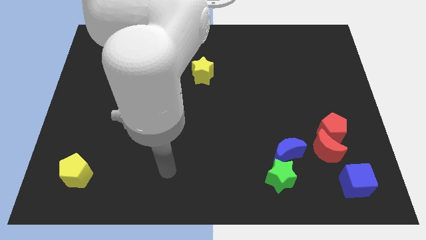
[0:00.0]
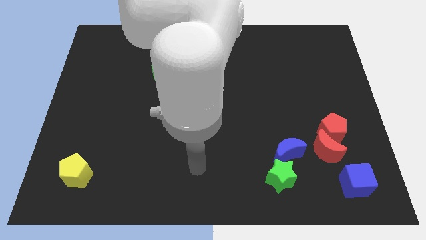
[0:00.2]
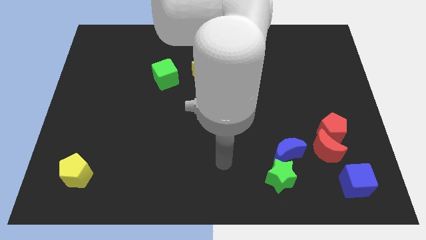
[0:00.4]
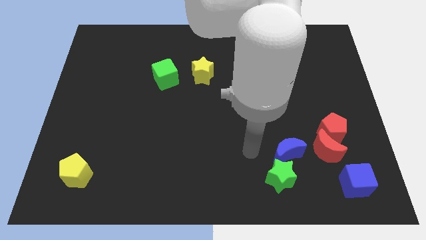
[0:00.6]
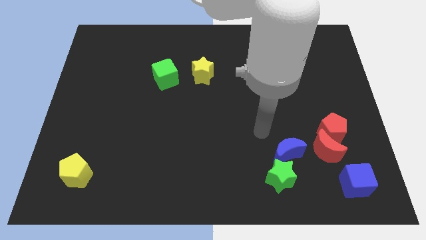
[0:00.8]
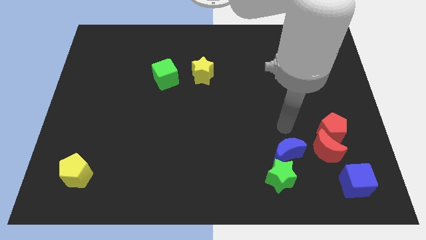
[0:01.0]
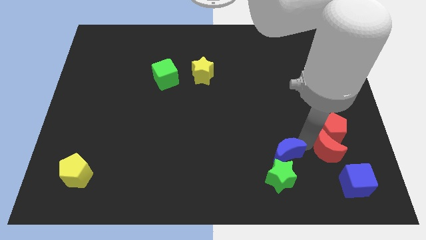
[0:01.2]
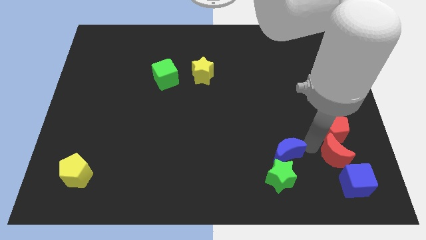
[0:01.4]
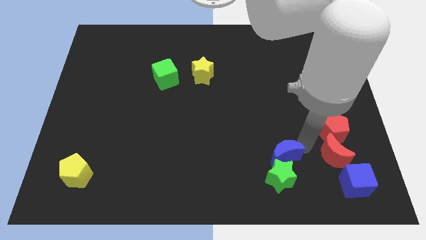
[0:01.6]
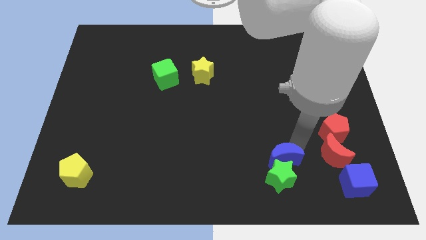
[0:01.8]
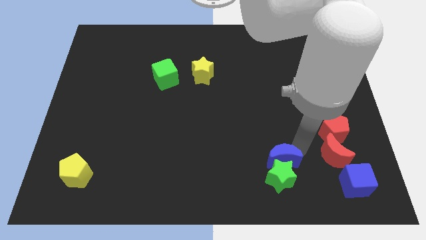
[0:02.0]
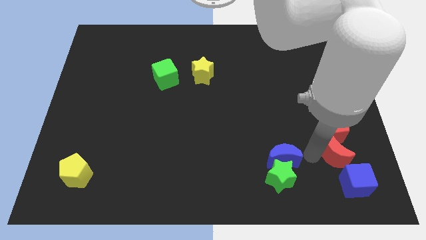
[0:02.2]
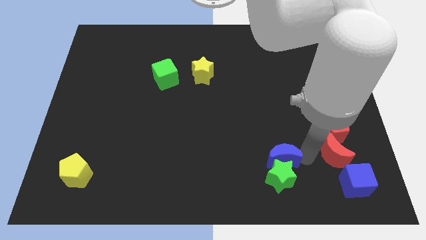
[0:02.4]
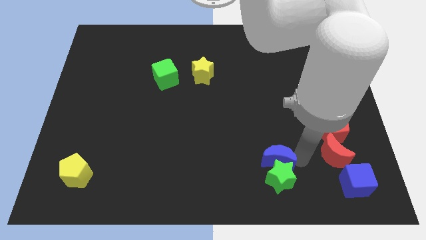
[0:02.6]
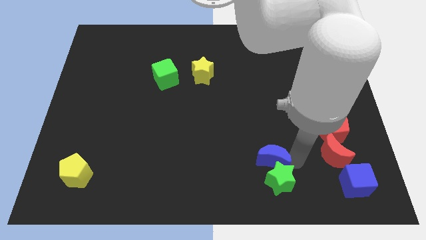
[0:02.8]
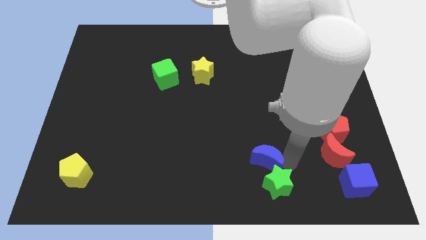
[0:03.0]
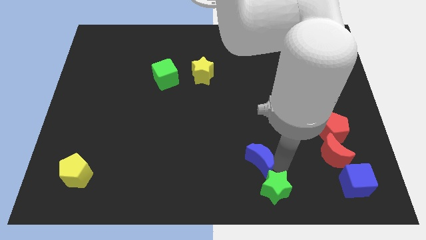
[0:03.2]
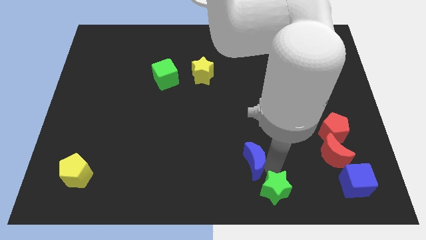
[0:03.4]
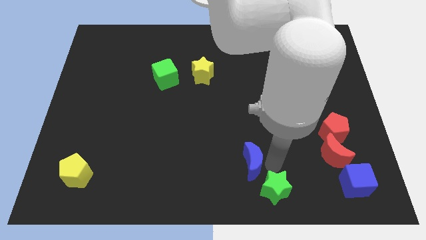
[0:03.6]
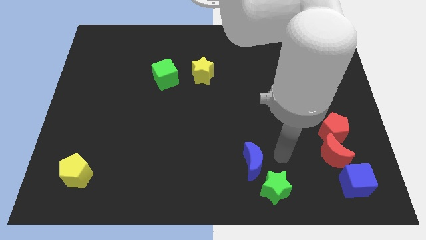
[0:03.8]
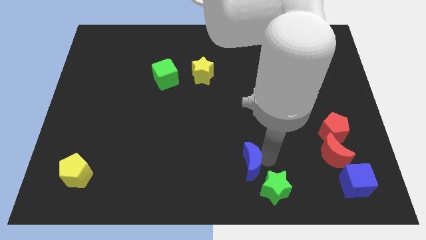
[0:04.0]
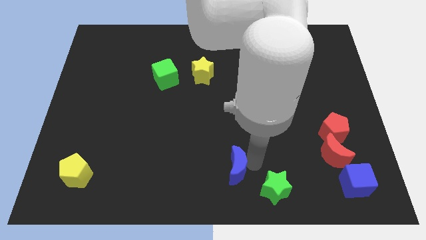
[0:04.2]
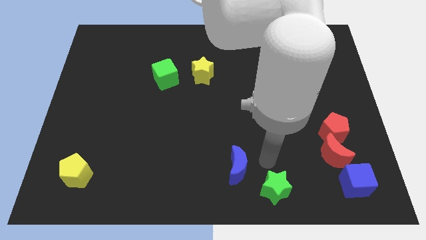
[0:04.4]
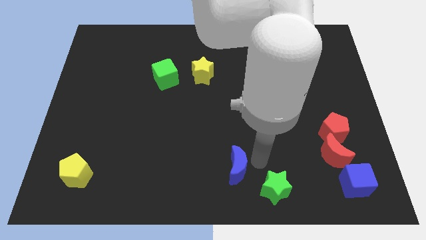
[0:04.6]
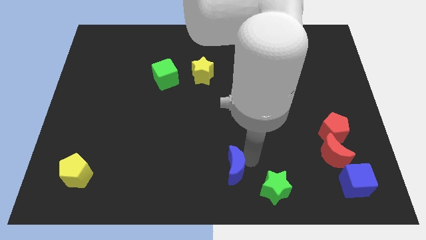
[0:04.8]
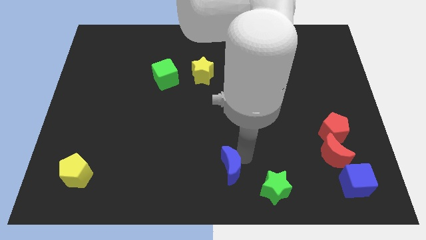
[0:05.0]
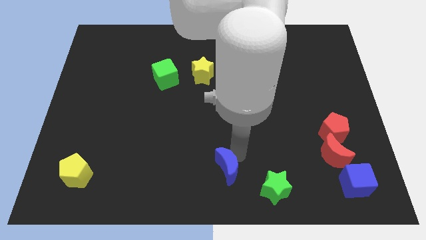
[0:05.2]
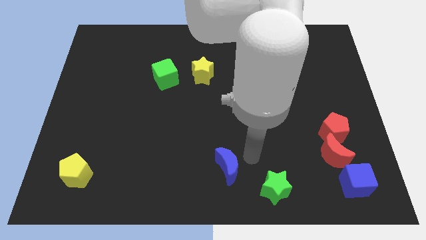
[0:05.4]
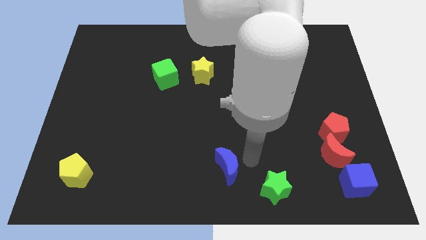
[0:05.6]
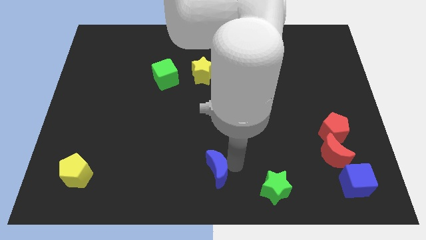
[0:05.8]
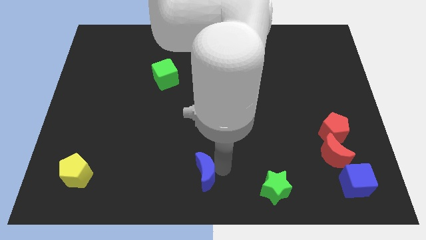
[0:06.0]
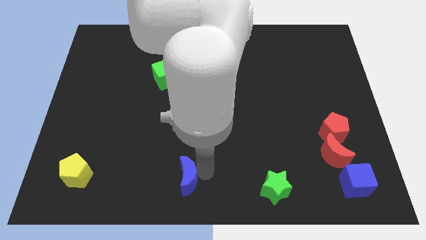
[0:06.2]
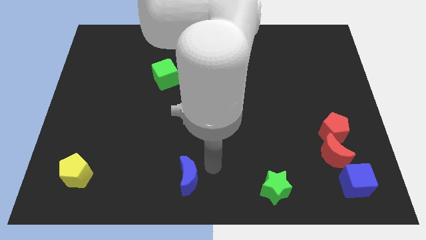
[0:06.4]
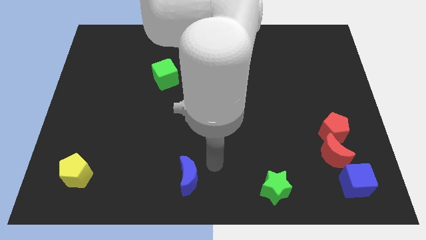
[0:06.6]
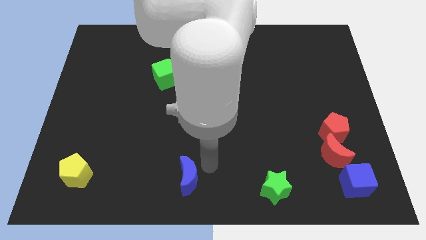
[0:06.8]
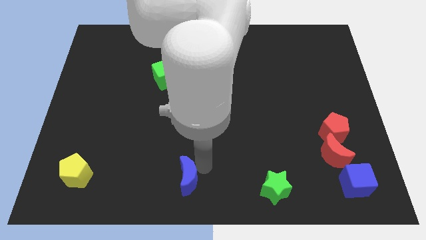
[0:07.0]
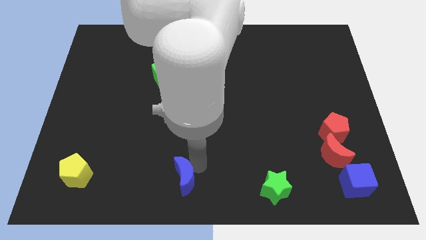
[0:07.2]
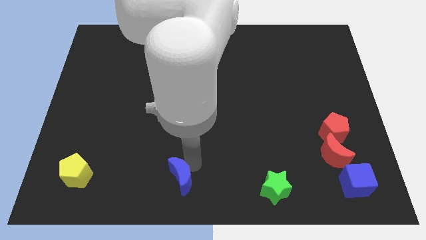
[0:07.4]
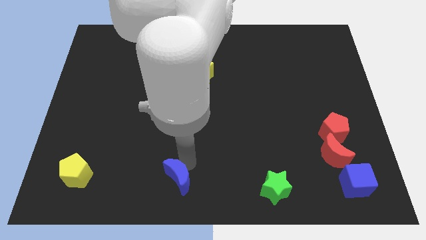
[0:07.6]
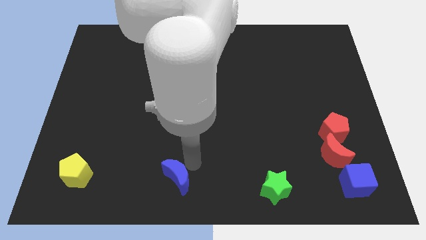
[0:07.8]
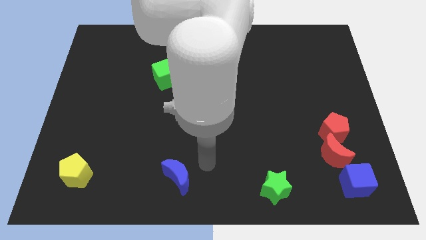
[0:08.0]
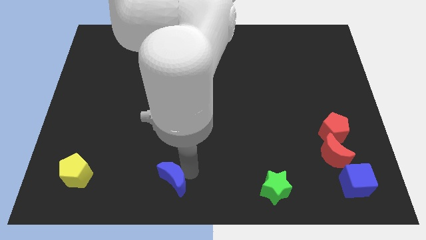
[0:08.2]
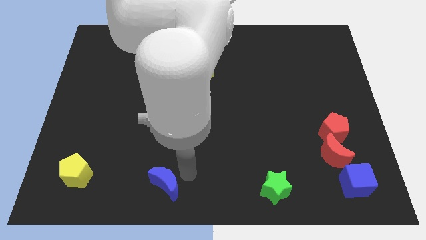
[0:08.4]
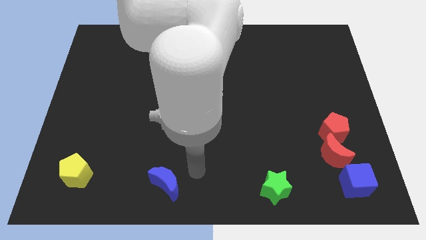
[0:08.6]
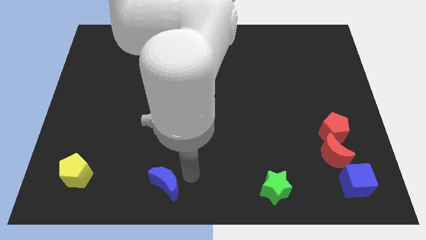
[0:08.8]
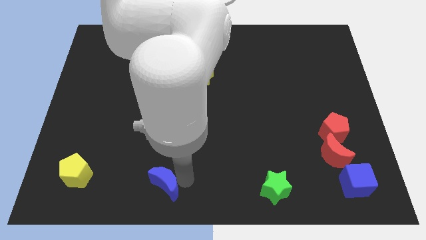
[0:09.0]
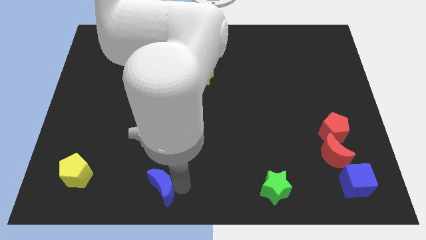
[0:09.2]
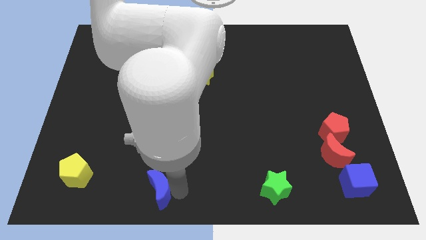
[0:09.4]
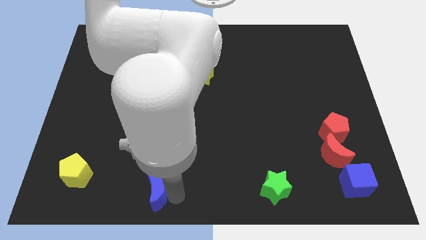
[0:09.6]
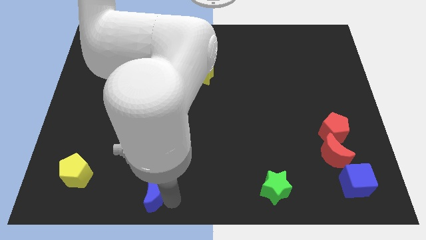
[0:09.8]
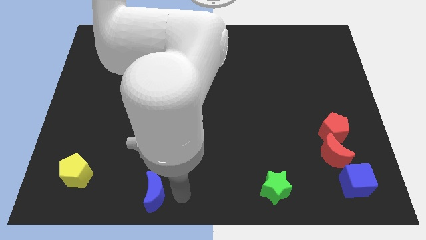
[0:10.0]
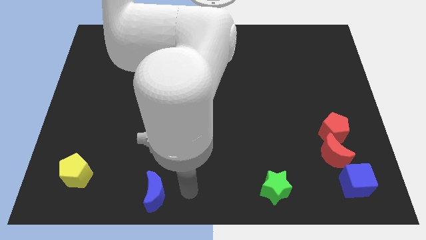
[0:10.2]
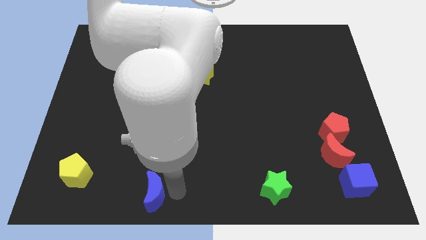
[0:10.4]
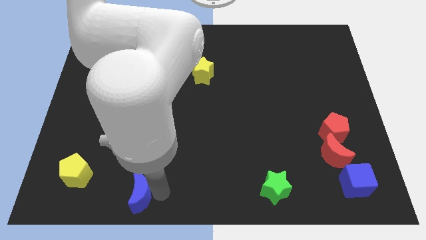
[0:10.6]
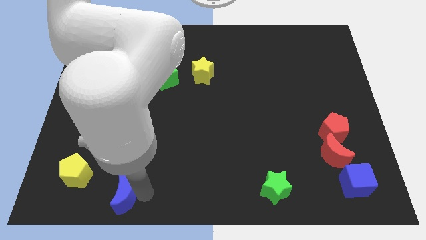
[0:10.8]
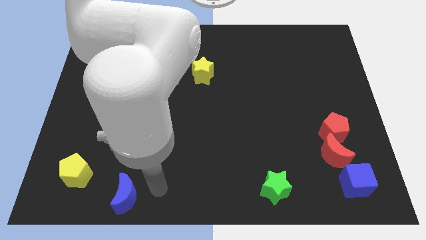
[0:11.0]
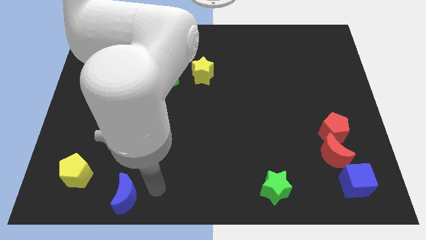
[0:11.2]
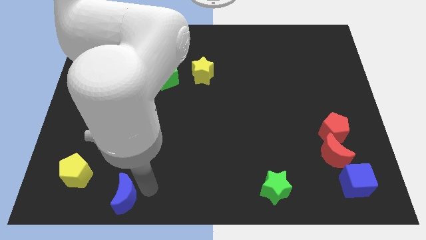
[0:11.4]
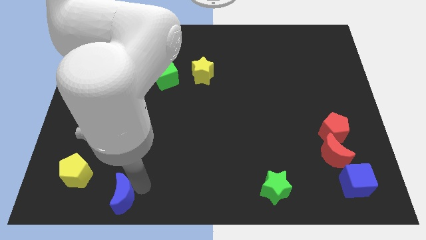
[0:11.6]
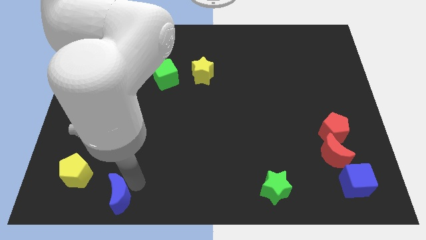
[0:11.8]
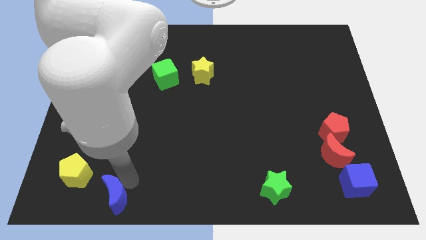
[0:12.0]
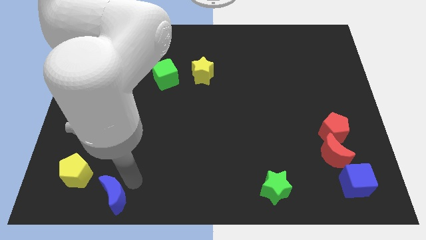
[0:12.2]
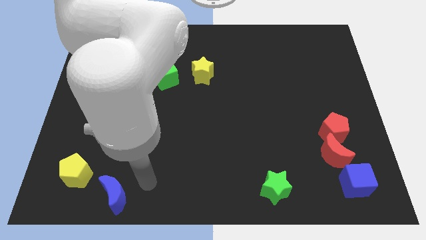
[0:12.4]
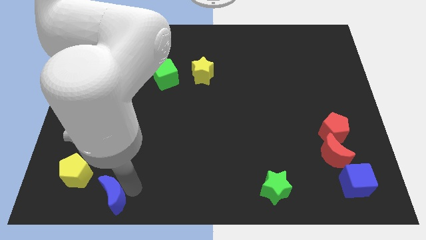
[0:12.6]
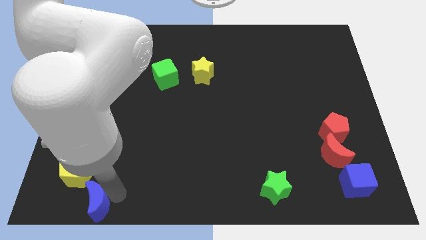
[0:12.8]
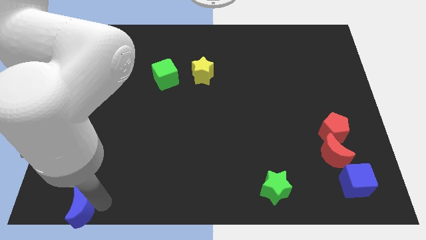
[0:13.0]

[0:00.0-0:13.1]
slide the blue moon to the bottom left
